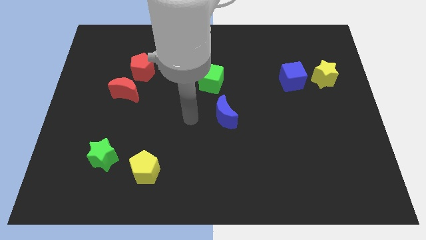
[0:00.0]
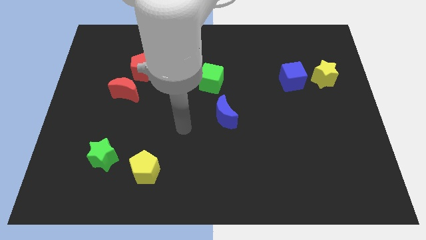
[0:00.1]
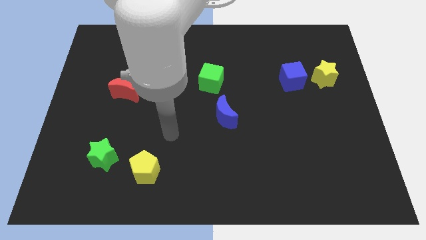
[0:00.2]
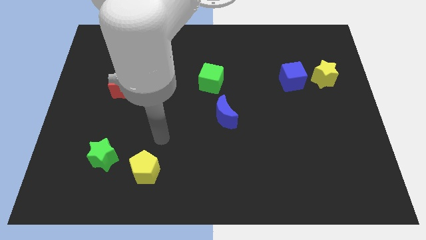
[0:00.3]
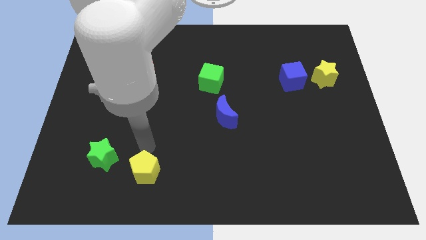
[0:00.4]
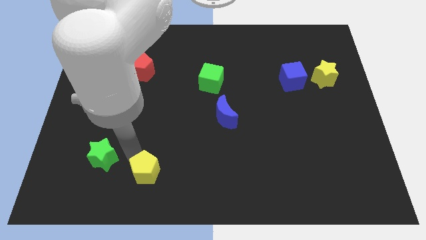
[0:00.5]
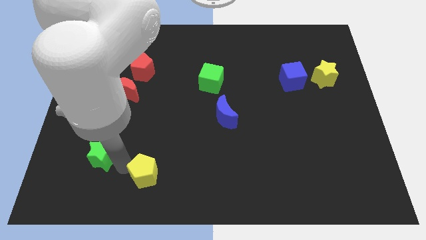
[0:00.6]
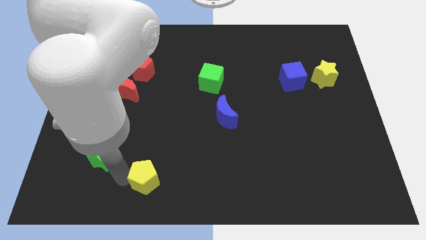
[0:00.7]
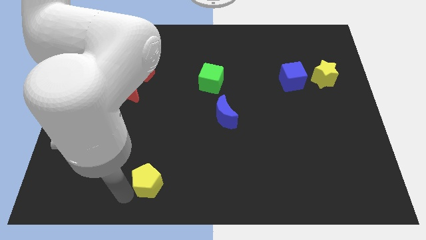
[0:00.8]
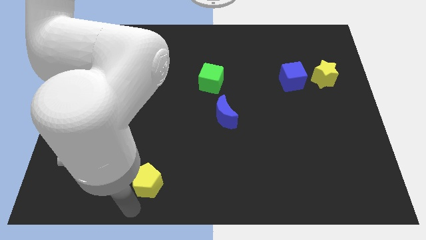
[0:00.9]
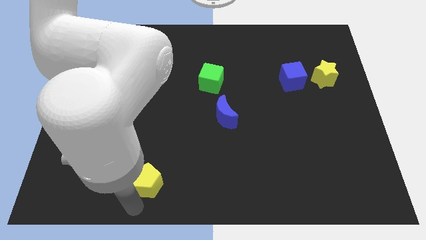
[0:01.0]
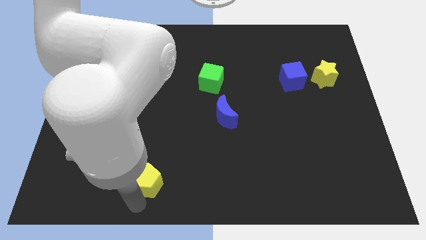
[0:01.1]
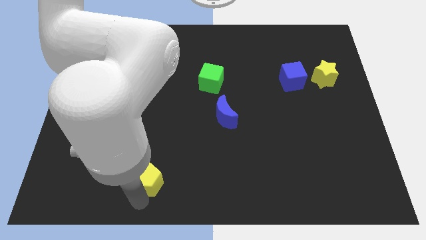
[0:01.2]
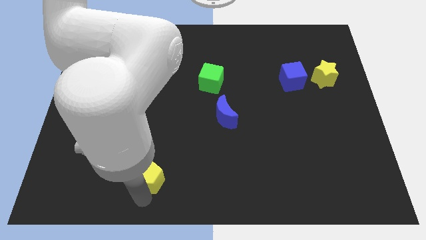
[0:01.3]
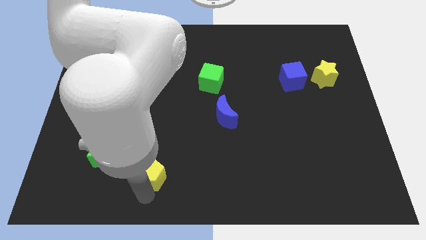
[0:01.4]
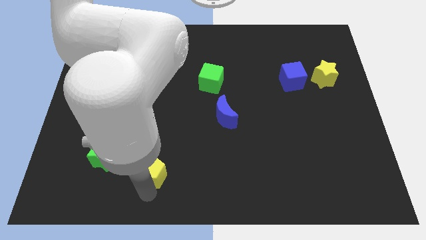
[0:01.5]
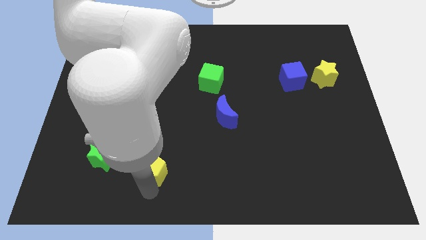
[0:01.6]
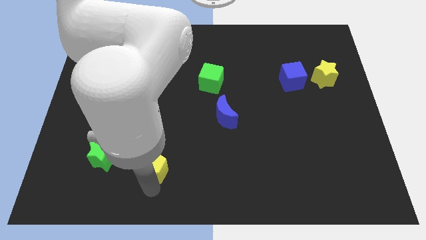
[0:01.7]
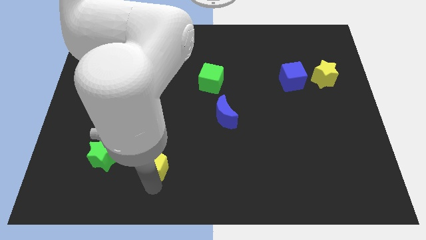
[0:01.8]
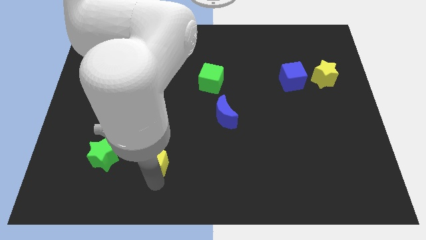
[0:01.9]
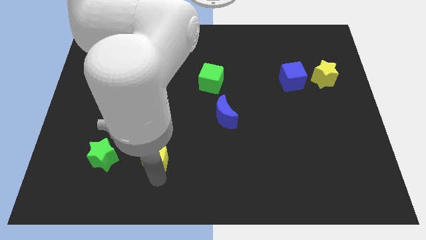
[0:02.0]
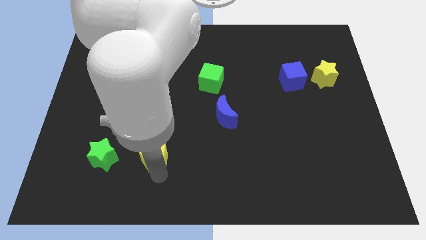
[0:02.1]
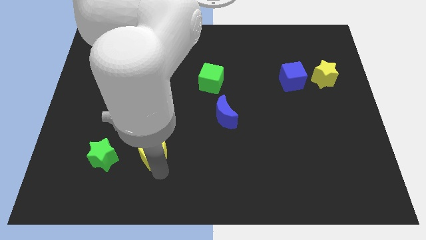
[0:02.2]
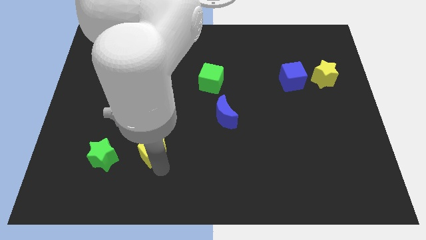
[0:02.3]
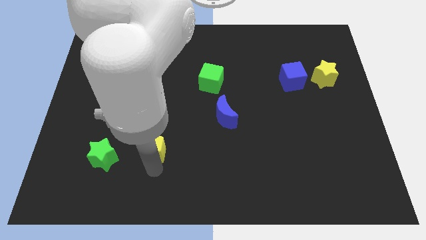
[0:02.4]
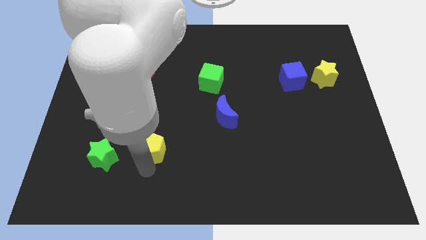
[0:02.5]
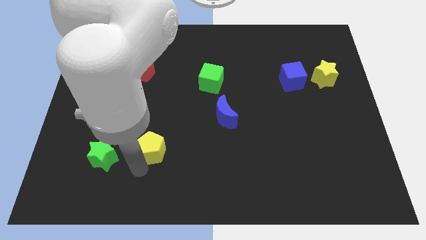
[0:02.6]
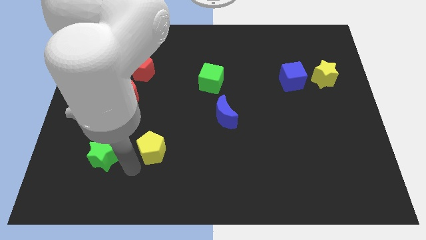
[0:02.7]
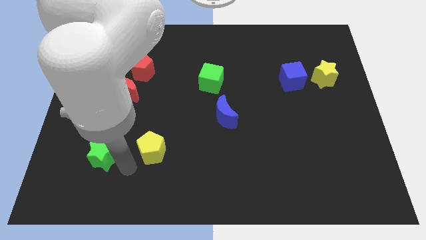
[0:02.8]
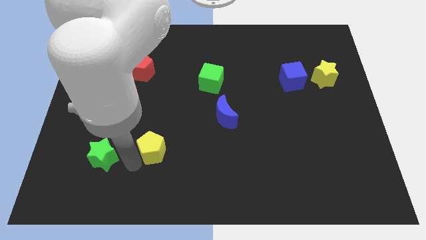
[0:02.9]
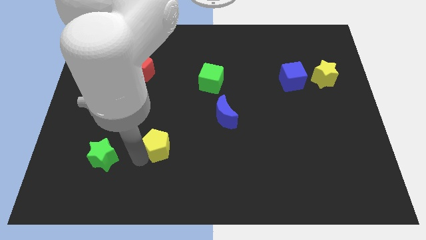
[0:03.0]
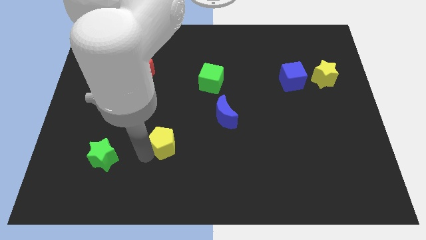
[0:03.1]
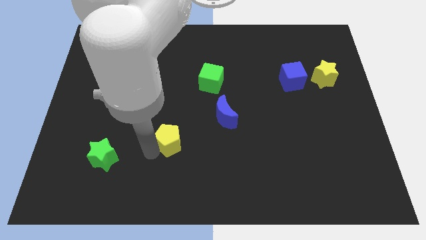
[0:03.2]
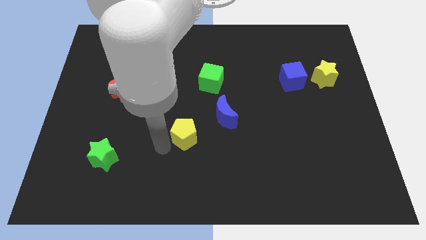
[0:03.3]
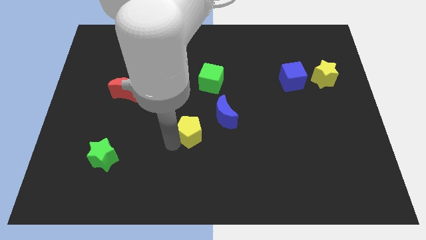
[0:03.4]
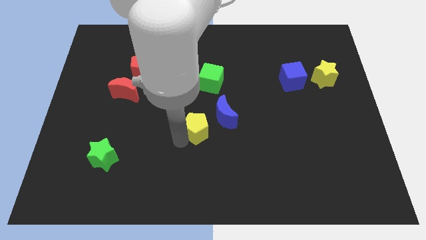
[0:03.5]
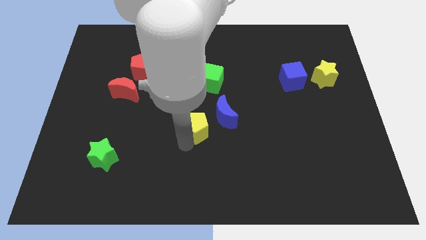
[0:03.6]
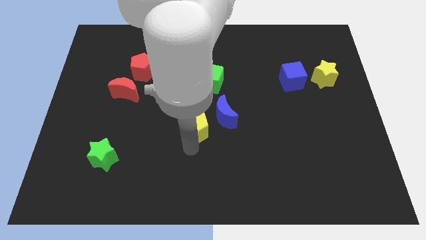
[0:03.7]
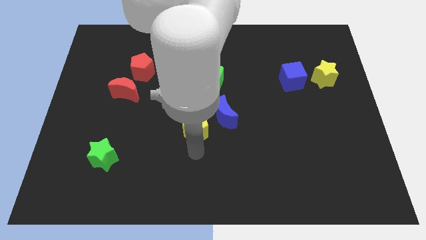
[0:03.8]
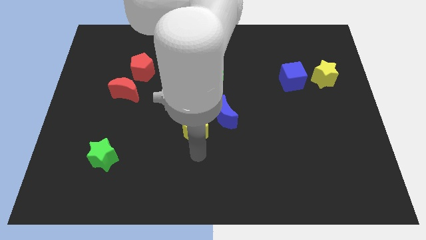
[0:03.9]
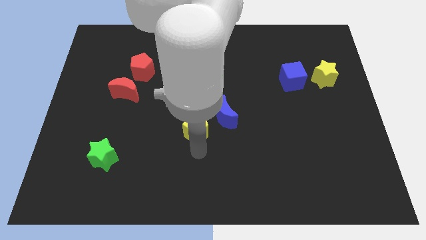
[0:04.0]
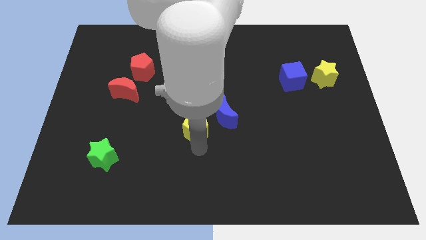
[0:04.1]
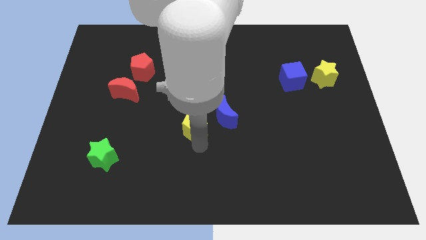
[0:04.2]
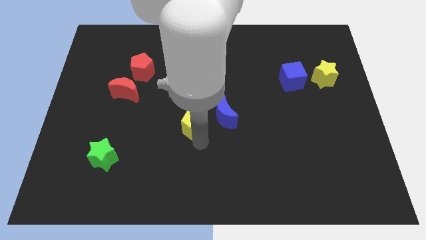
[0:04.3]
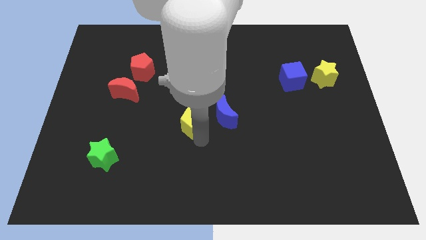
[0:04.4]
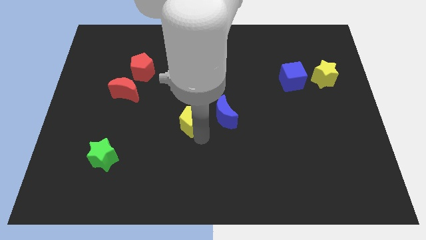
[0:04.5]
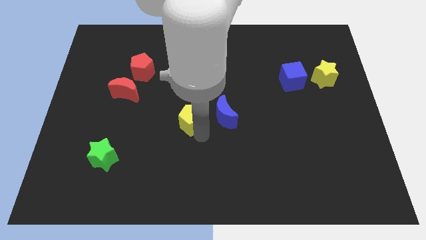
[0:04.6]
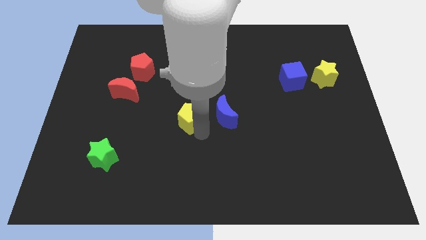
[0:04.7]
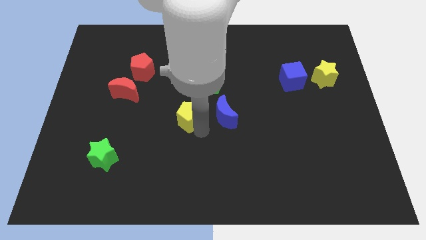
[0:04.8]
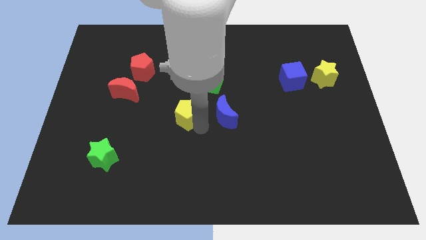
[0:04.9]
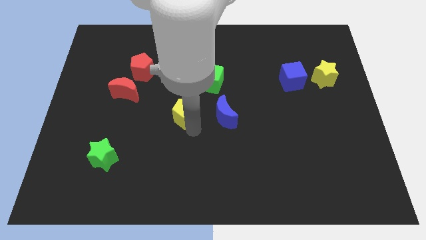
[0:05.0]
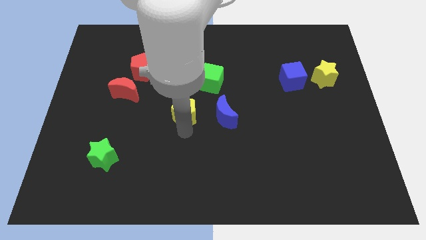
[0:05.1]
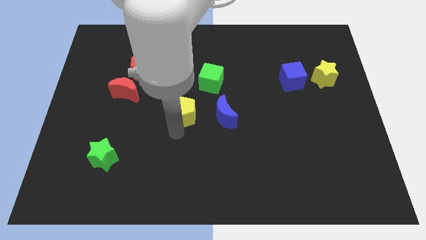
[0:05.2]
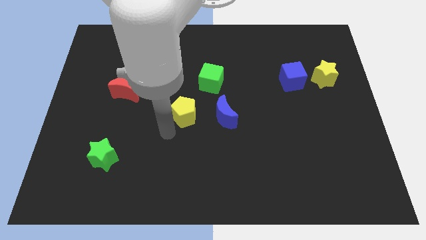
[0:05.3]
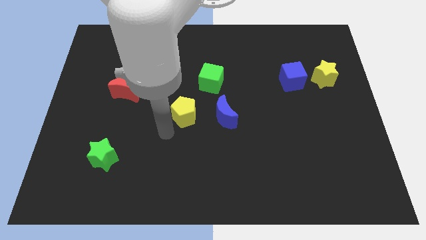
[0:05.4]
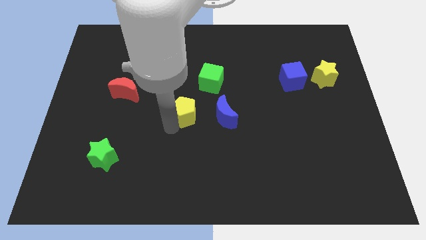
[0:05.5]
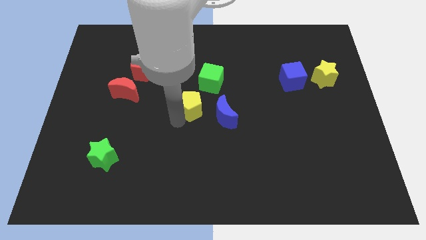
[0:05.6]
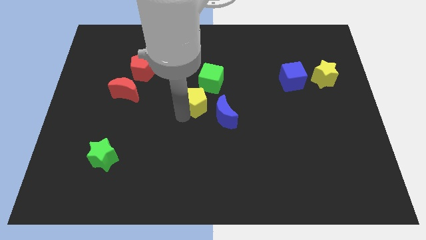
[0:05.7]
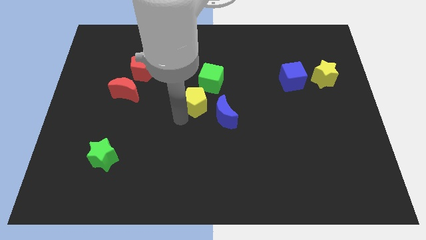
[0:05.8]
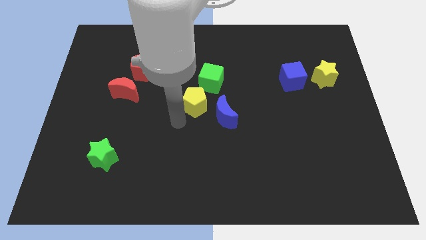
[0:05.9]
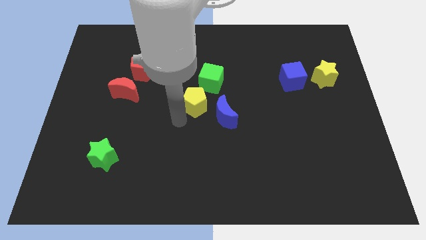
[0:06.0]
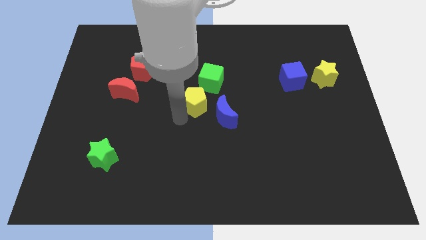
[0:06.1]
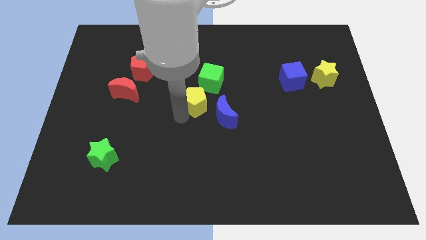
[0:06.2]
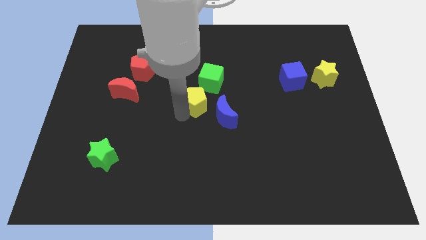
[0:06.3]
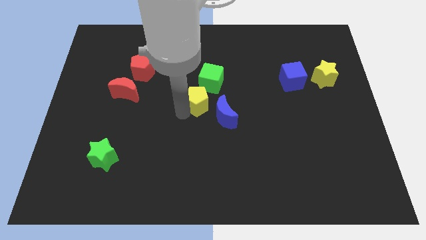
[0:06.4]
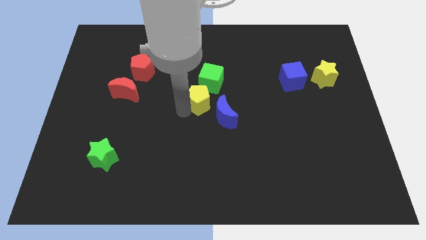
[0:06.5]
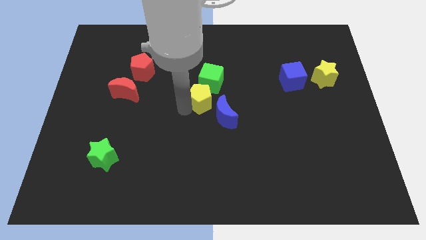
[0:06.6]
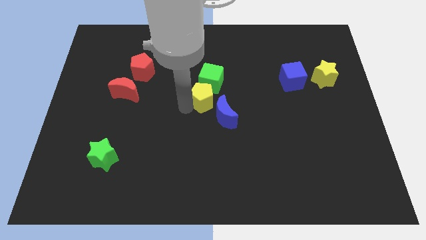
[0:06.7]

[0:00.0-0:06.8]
slide the yellow pentagon next to the green cube
